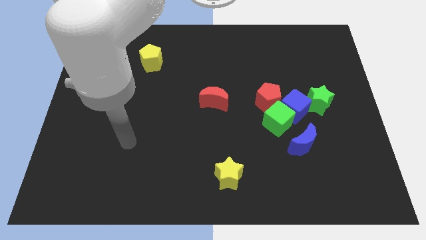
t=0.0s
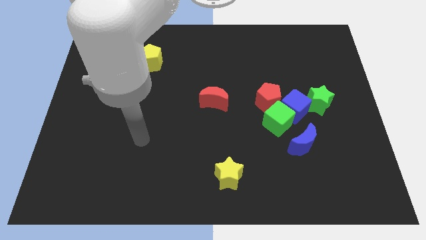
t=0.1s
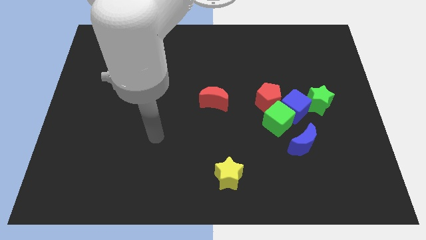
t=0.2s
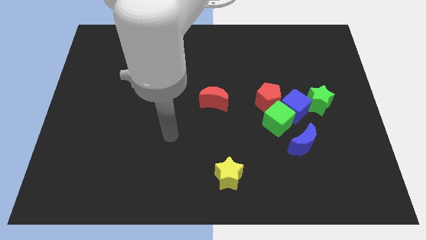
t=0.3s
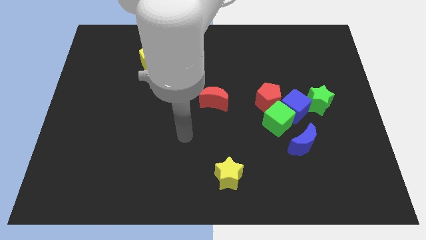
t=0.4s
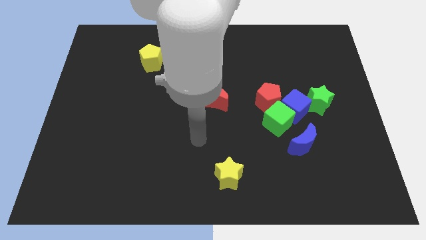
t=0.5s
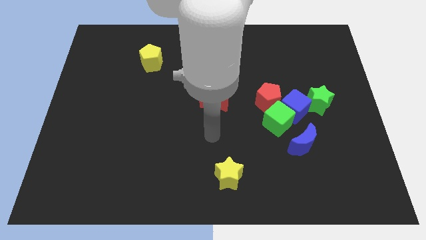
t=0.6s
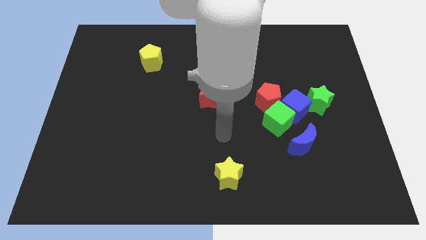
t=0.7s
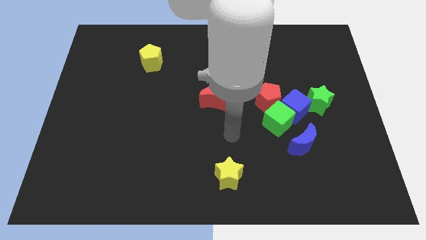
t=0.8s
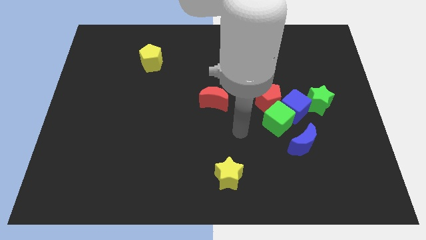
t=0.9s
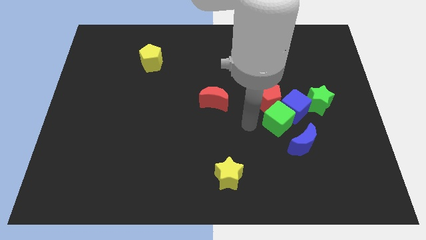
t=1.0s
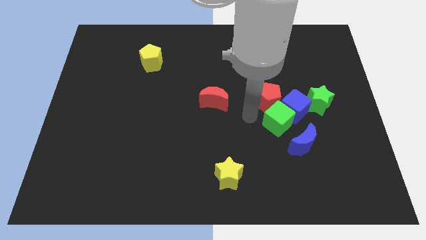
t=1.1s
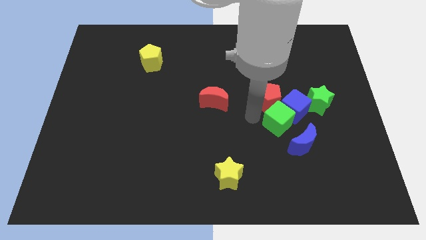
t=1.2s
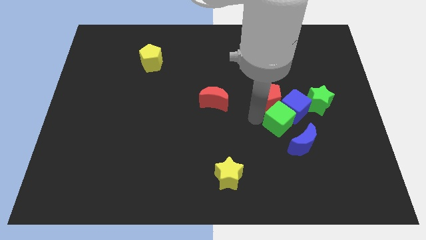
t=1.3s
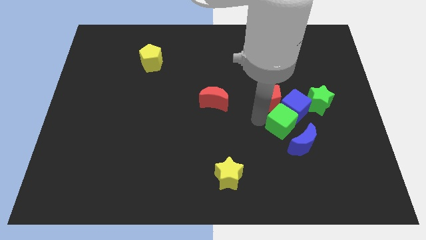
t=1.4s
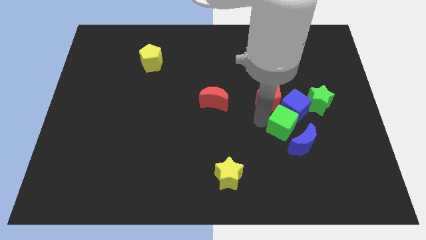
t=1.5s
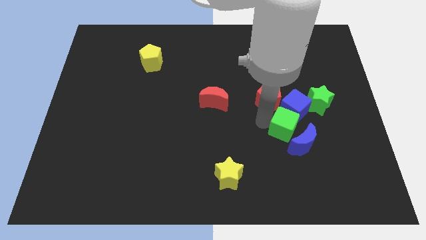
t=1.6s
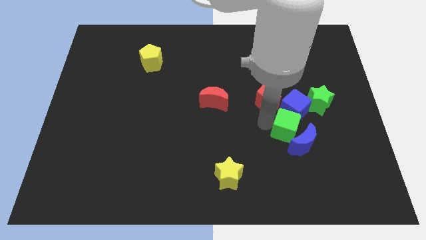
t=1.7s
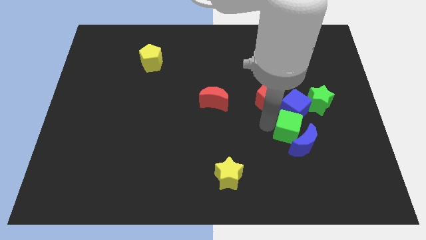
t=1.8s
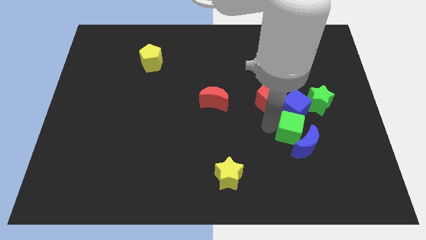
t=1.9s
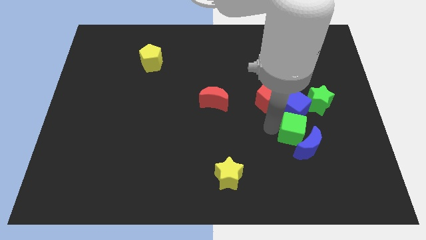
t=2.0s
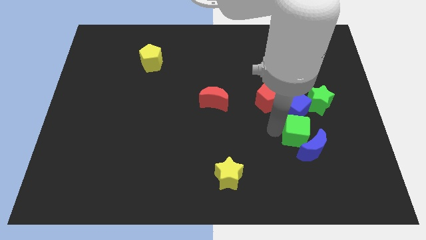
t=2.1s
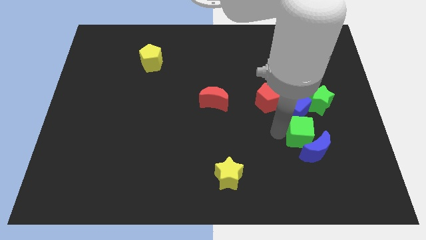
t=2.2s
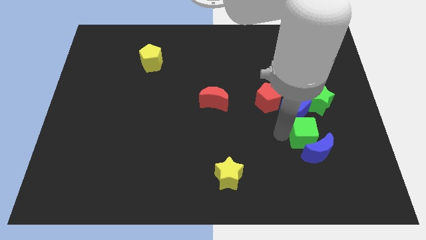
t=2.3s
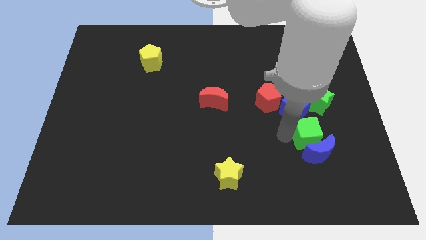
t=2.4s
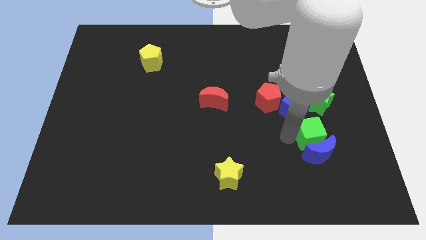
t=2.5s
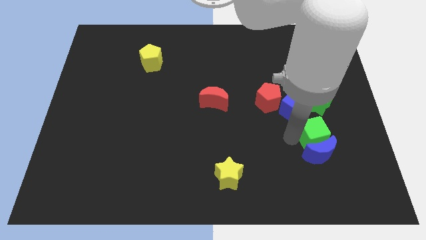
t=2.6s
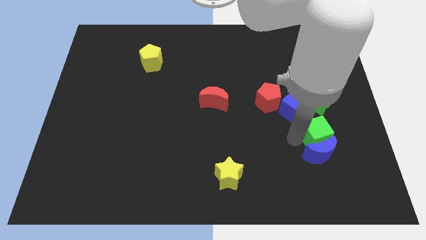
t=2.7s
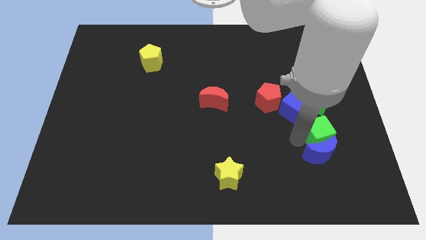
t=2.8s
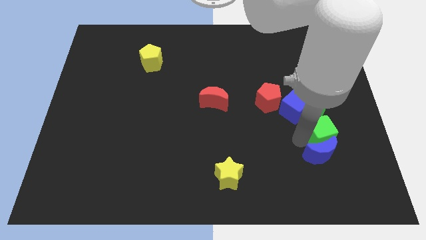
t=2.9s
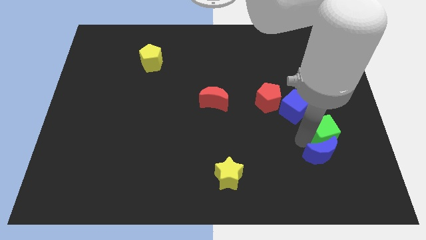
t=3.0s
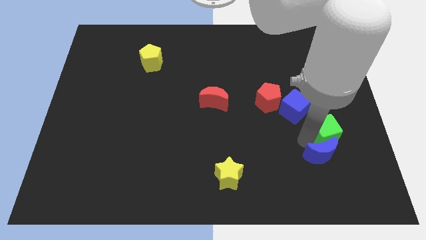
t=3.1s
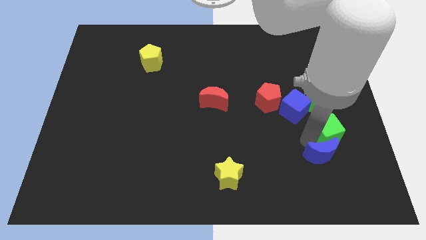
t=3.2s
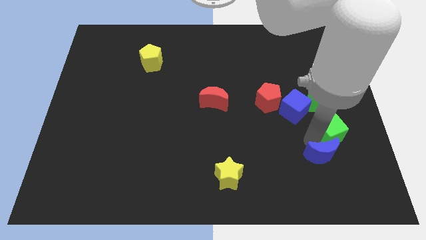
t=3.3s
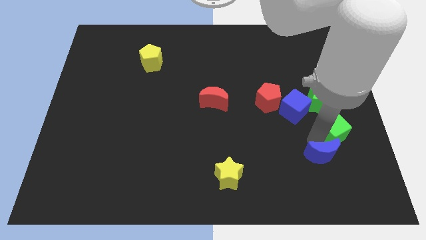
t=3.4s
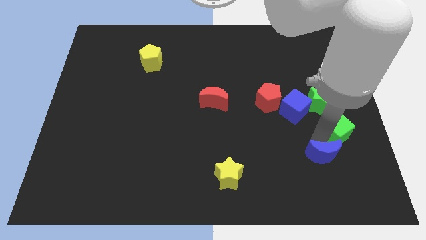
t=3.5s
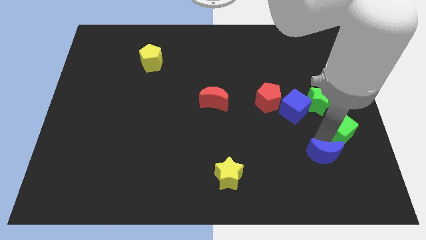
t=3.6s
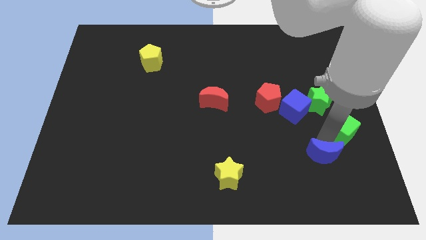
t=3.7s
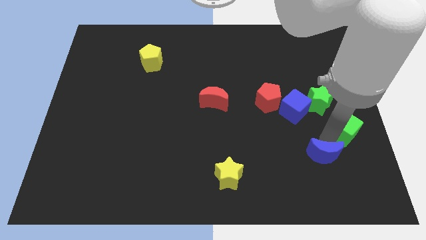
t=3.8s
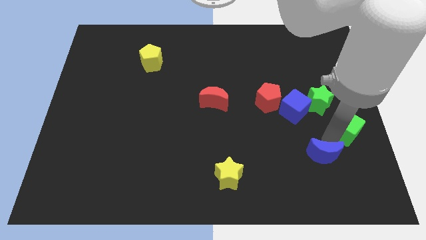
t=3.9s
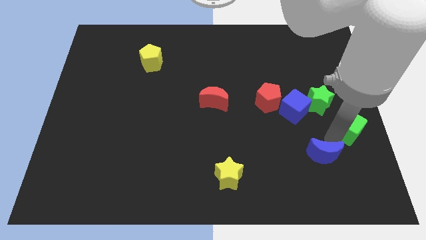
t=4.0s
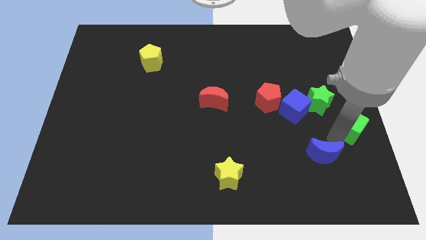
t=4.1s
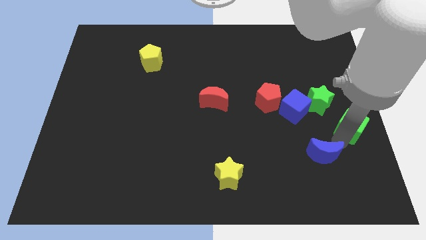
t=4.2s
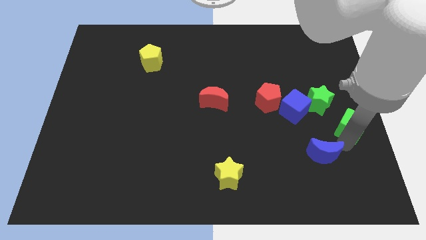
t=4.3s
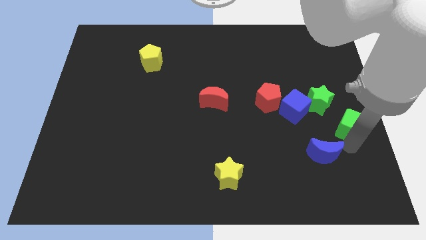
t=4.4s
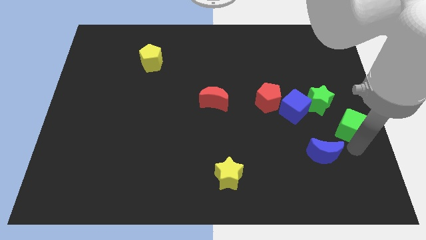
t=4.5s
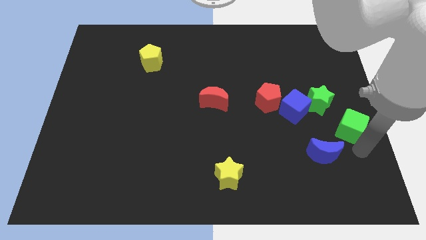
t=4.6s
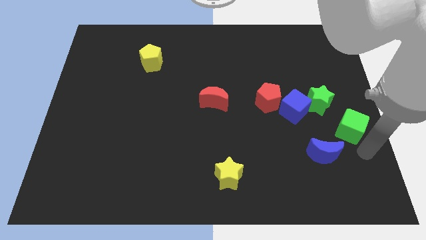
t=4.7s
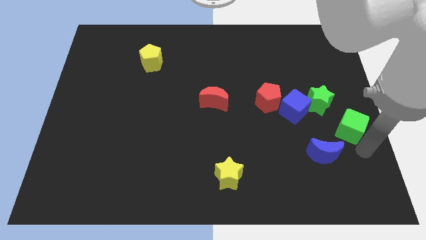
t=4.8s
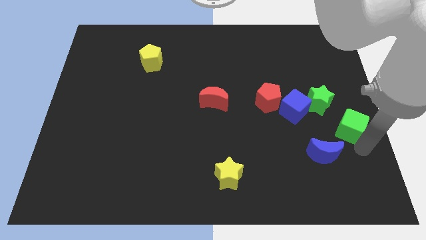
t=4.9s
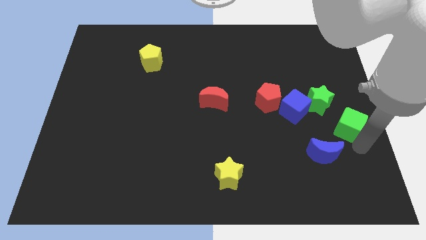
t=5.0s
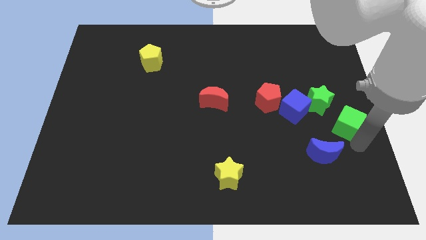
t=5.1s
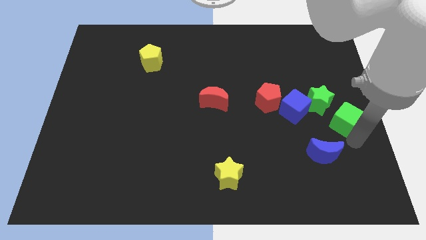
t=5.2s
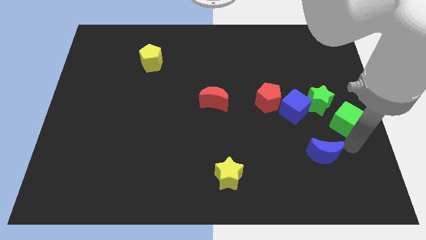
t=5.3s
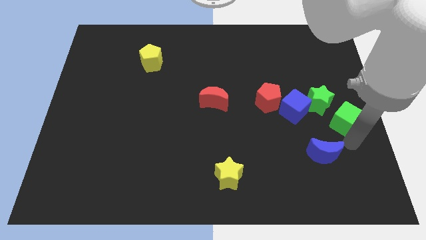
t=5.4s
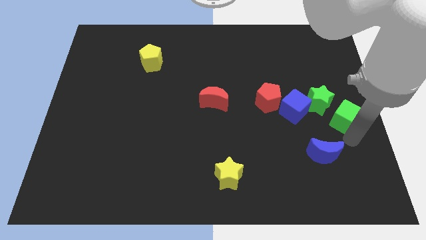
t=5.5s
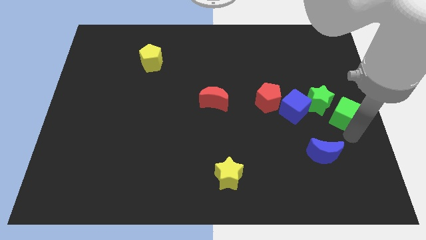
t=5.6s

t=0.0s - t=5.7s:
slightly move the green cube up and to the right

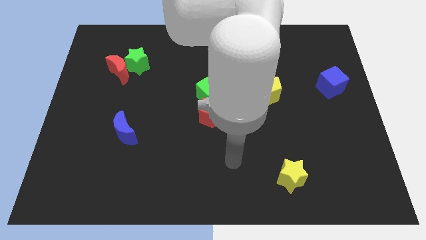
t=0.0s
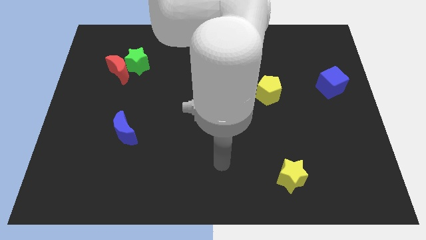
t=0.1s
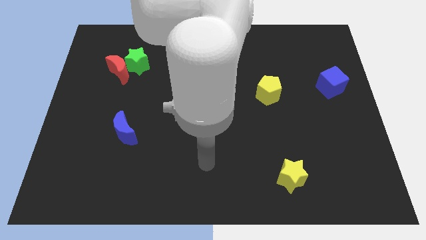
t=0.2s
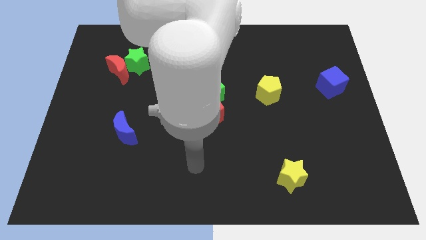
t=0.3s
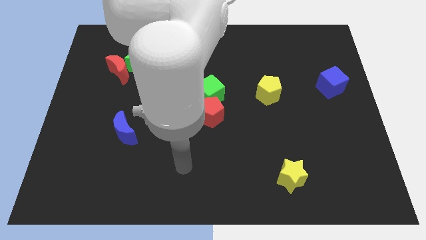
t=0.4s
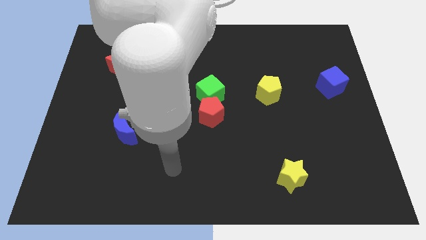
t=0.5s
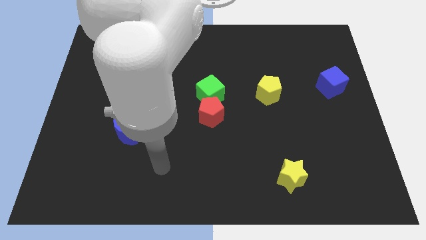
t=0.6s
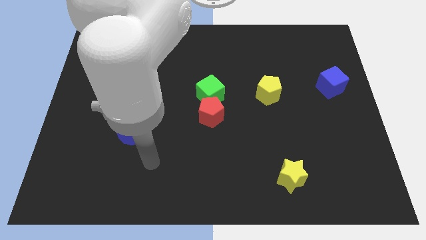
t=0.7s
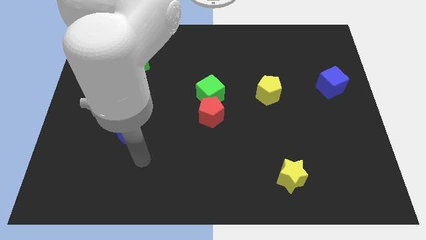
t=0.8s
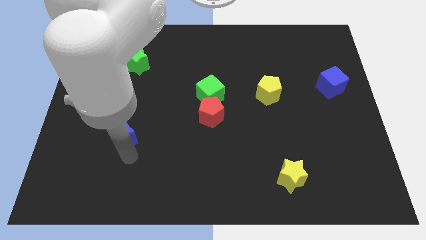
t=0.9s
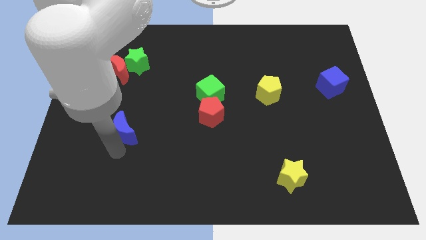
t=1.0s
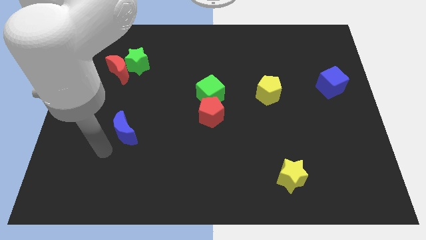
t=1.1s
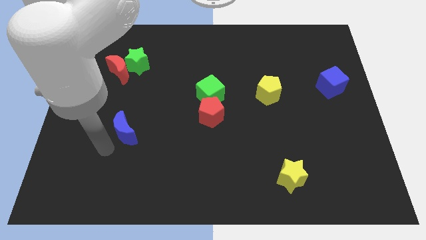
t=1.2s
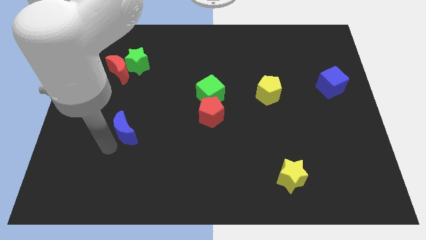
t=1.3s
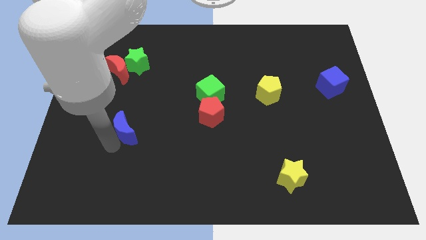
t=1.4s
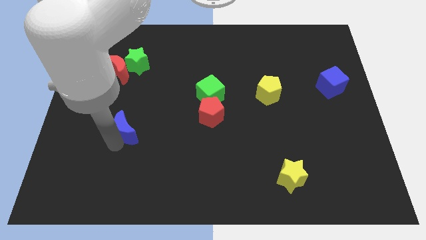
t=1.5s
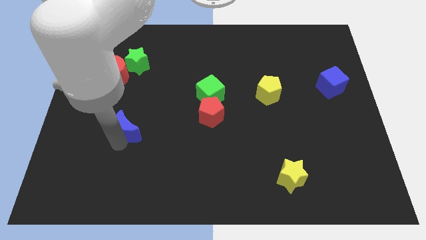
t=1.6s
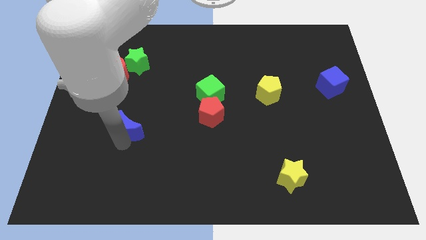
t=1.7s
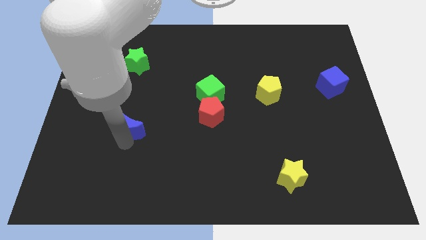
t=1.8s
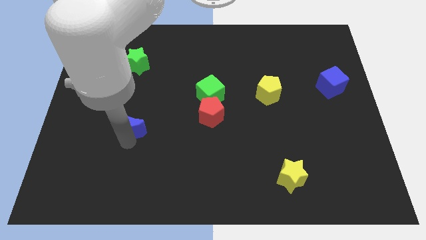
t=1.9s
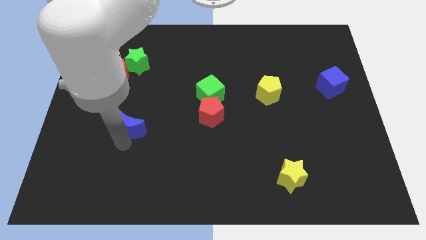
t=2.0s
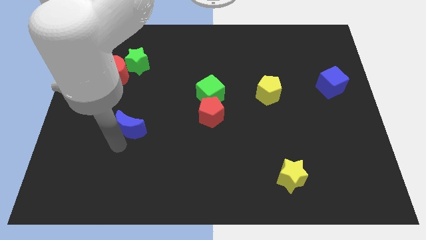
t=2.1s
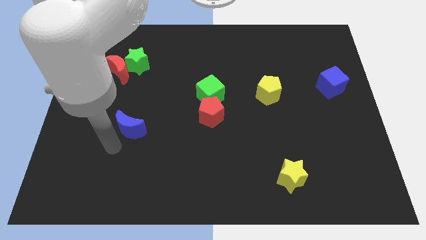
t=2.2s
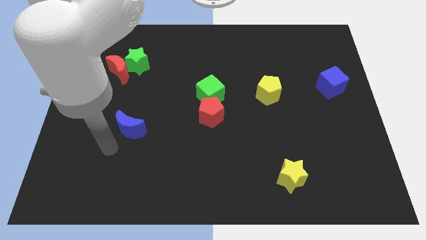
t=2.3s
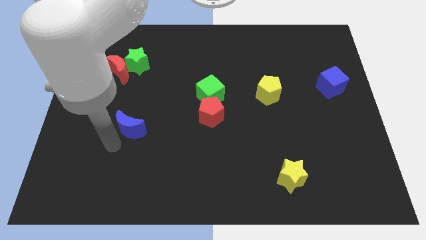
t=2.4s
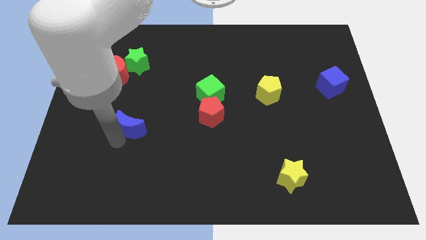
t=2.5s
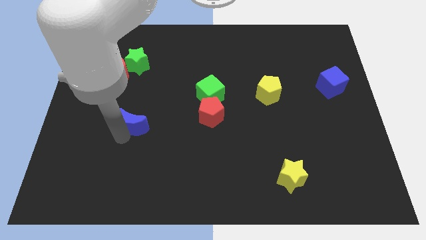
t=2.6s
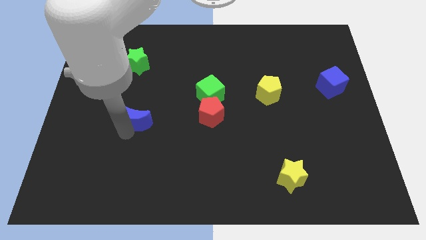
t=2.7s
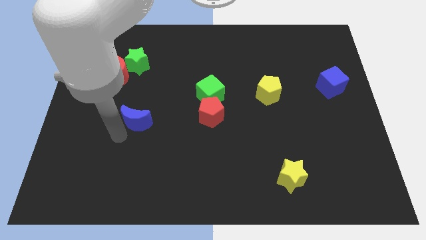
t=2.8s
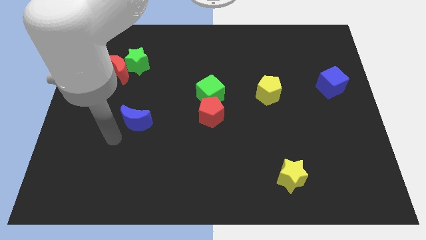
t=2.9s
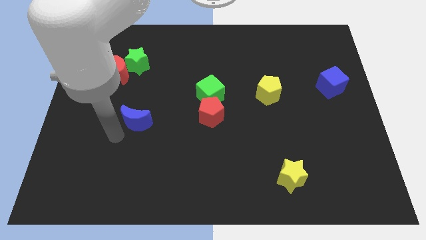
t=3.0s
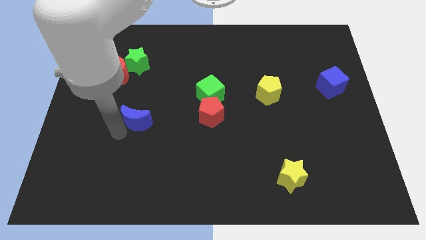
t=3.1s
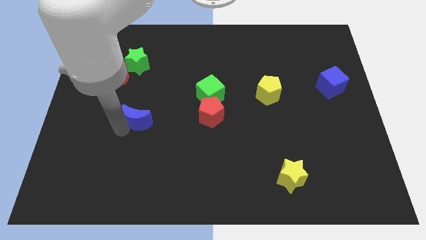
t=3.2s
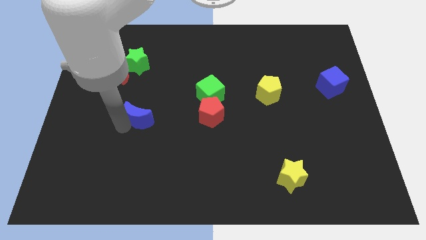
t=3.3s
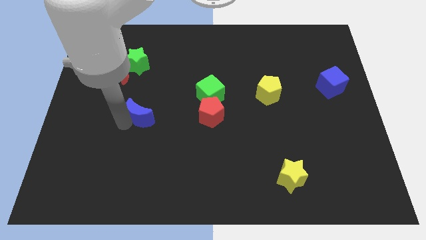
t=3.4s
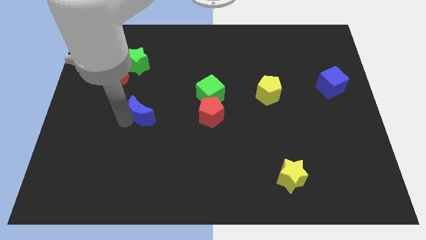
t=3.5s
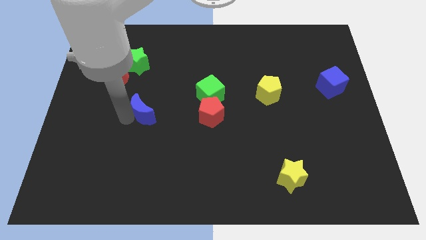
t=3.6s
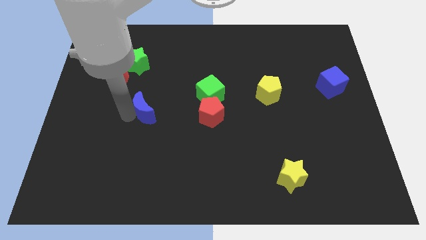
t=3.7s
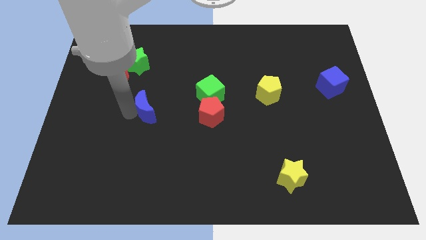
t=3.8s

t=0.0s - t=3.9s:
slide the blue moon upwards and right a little bit
